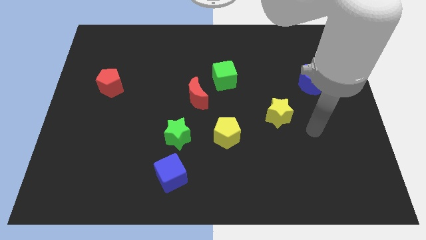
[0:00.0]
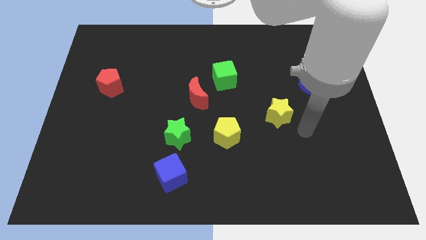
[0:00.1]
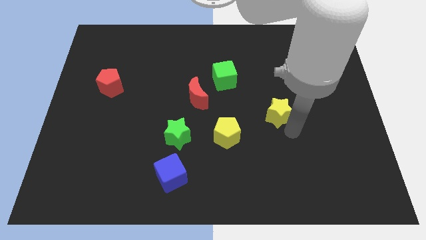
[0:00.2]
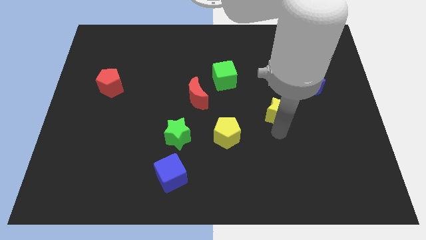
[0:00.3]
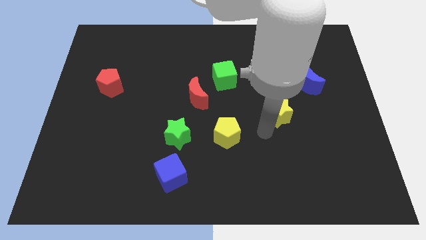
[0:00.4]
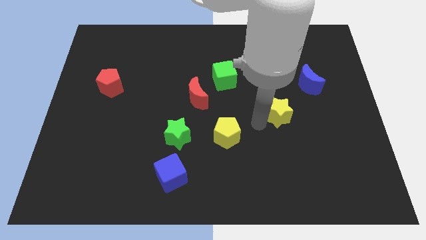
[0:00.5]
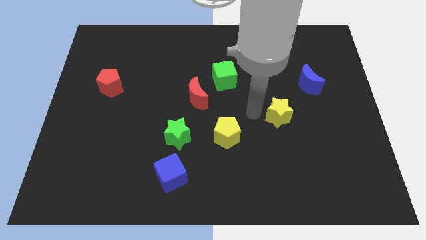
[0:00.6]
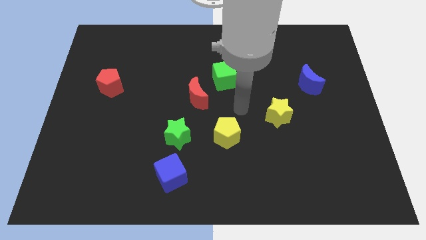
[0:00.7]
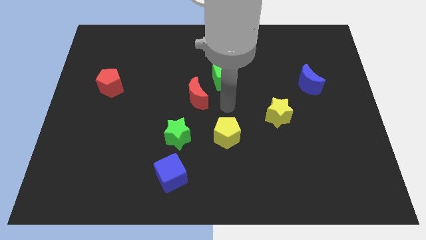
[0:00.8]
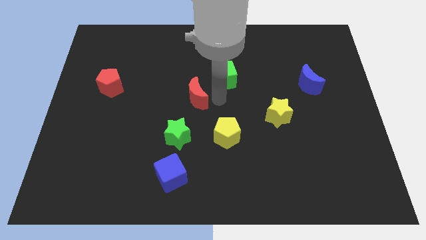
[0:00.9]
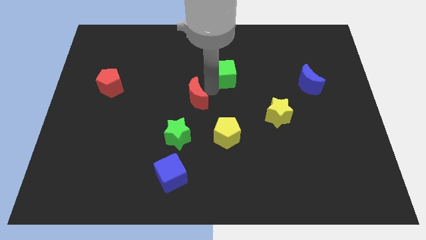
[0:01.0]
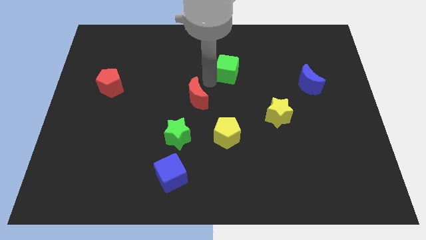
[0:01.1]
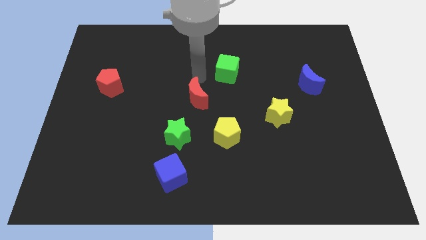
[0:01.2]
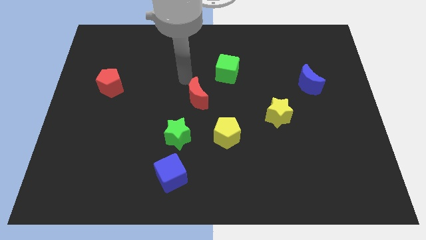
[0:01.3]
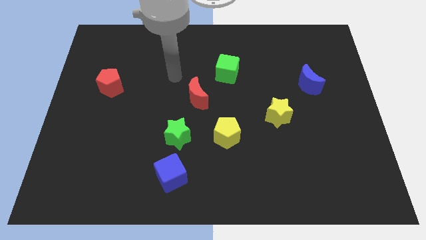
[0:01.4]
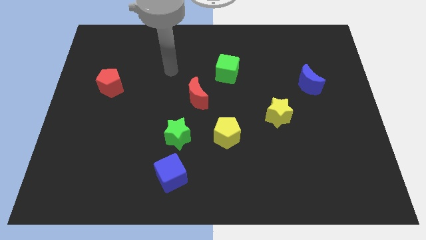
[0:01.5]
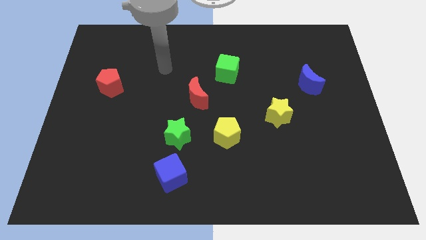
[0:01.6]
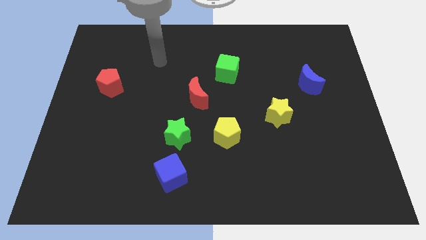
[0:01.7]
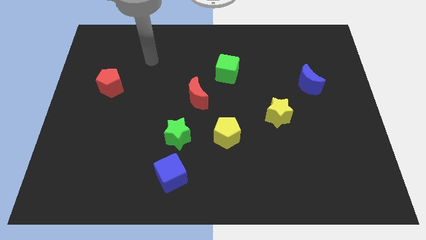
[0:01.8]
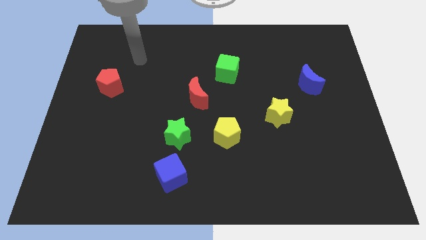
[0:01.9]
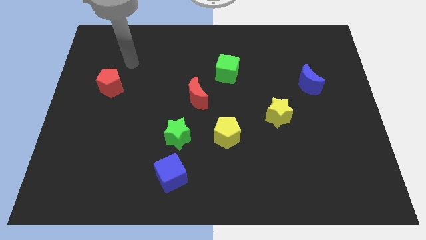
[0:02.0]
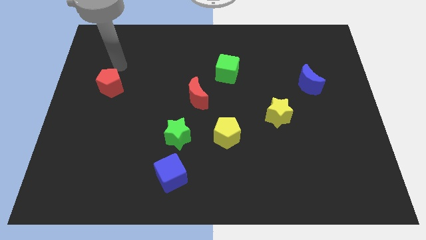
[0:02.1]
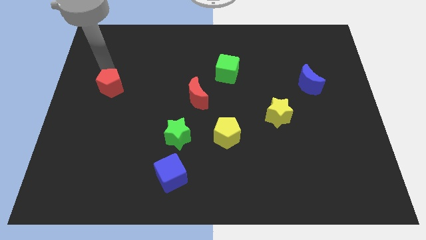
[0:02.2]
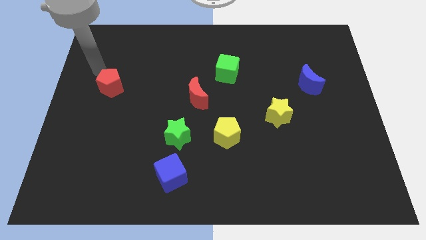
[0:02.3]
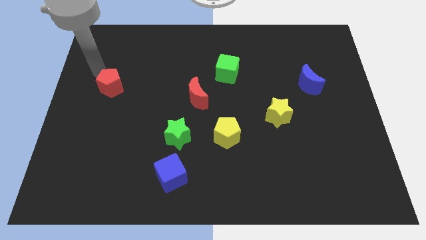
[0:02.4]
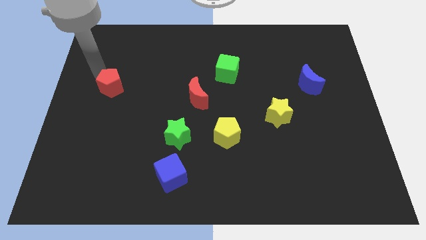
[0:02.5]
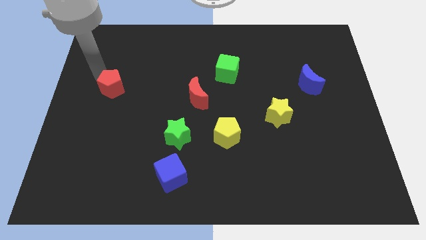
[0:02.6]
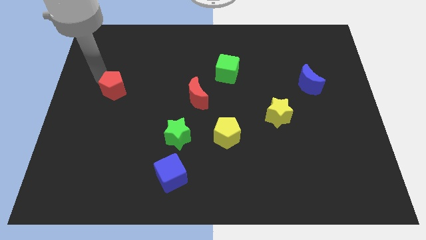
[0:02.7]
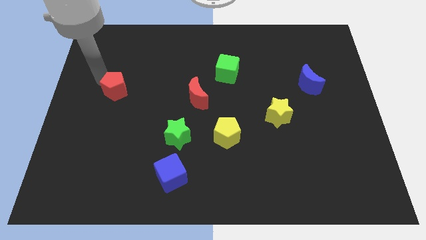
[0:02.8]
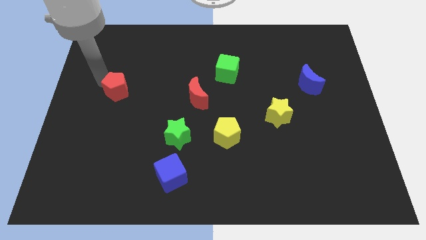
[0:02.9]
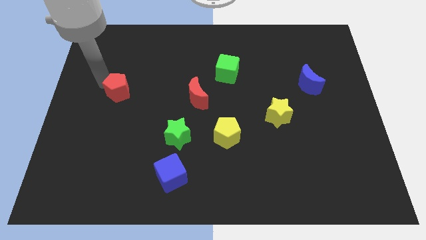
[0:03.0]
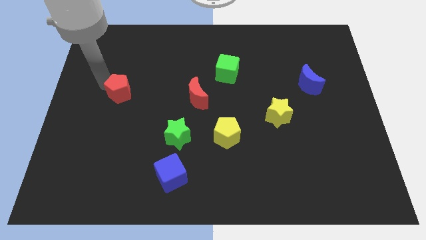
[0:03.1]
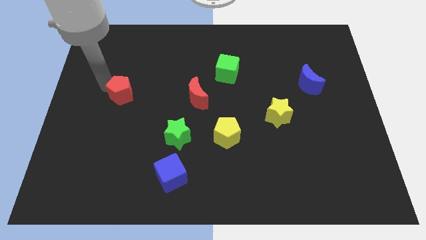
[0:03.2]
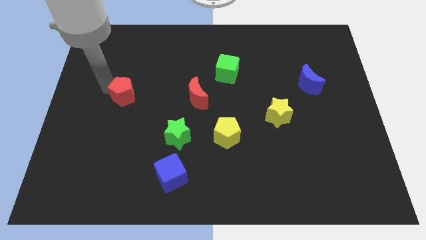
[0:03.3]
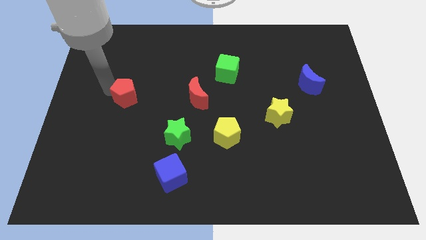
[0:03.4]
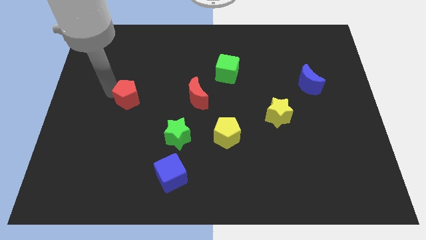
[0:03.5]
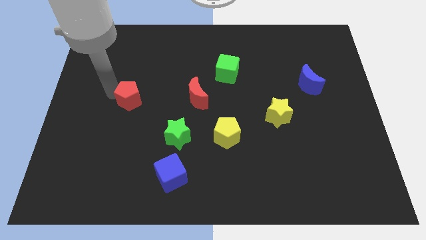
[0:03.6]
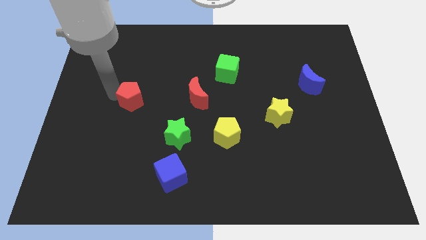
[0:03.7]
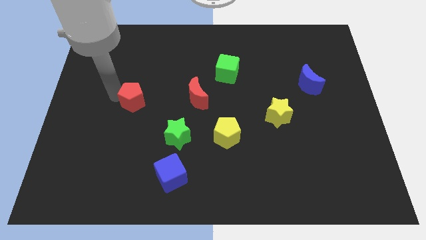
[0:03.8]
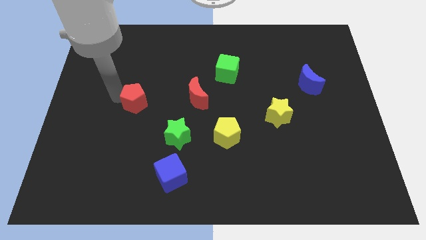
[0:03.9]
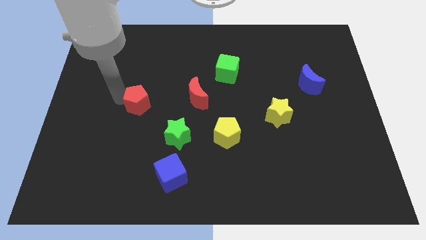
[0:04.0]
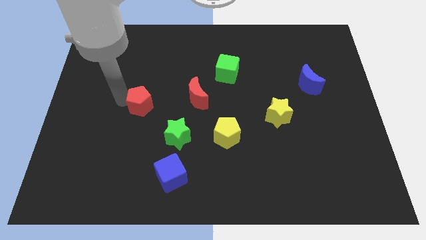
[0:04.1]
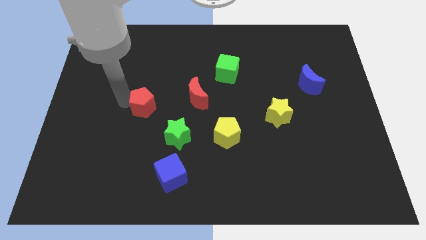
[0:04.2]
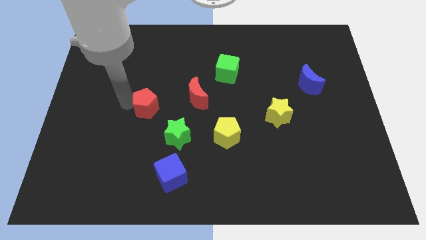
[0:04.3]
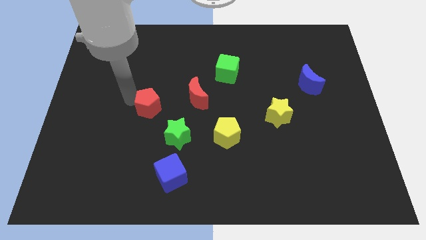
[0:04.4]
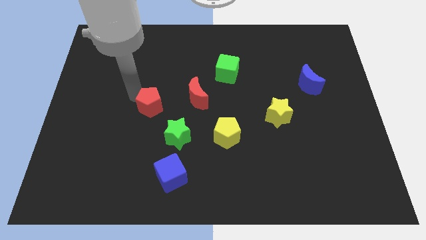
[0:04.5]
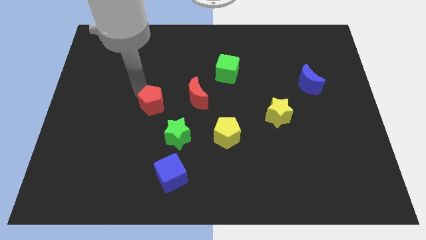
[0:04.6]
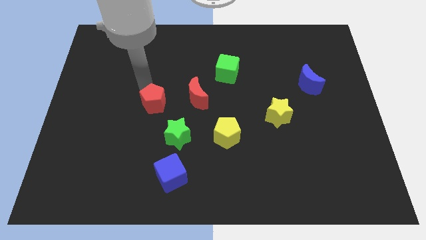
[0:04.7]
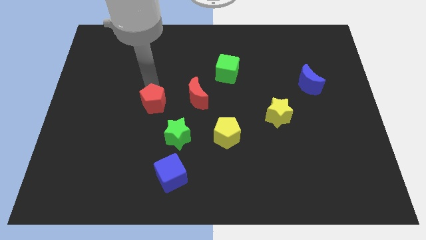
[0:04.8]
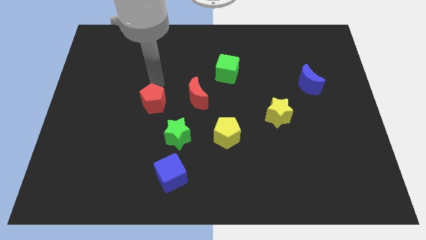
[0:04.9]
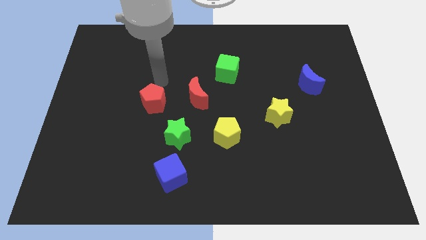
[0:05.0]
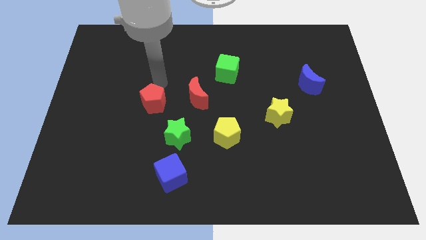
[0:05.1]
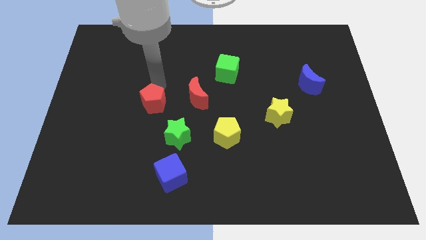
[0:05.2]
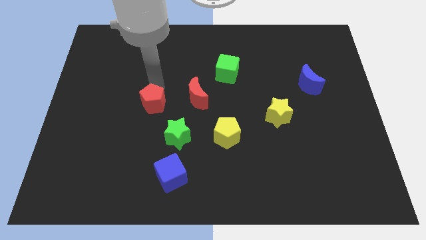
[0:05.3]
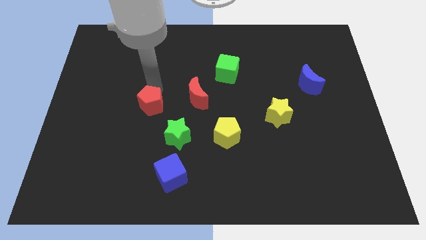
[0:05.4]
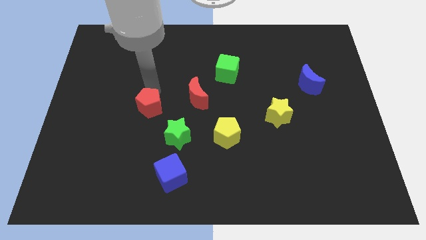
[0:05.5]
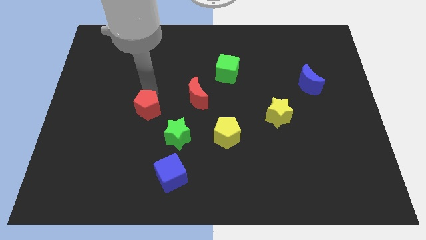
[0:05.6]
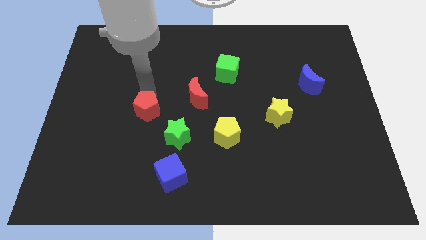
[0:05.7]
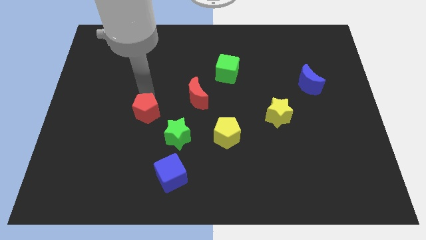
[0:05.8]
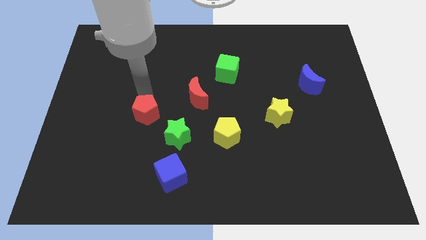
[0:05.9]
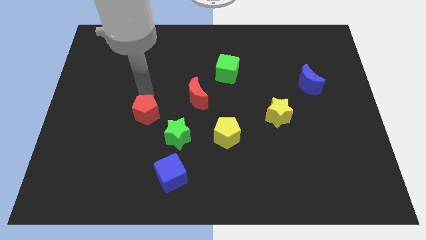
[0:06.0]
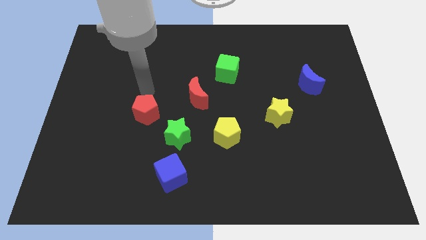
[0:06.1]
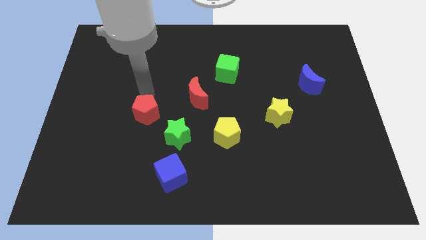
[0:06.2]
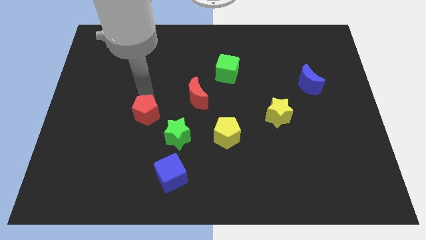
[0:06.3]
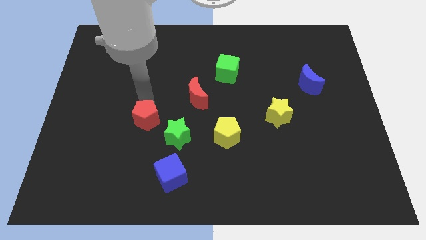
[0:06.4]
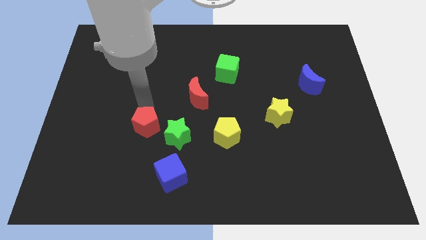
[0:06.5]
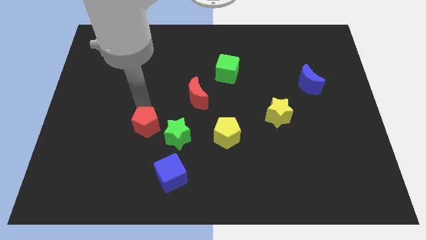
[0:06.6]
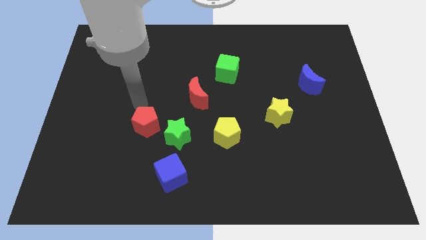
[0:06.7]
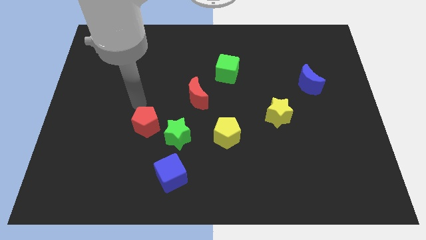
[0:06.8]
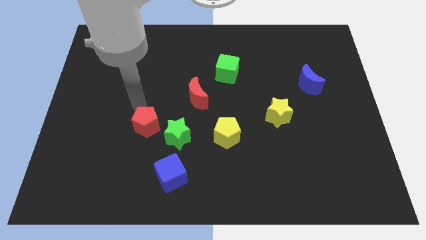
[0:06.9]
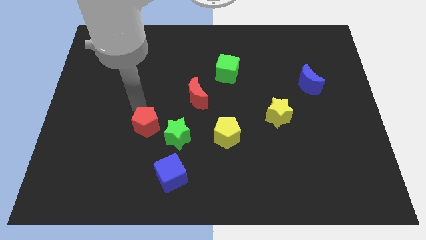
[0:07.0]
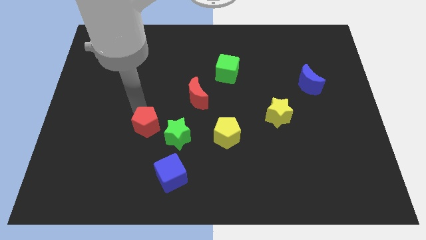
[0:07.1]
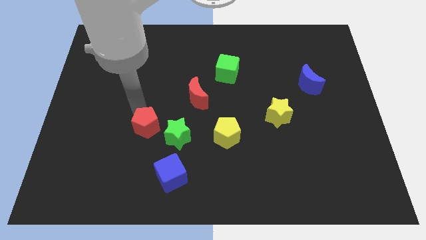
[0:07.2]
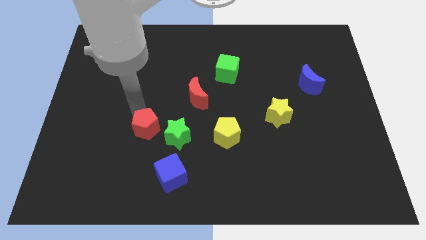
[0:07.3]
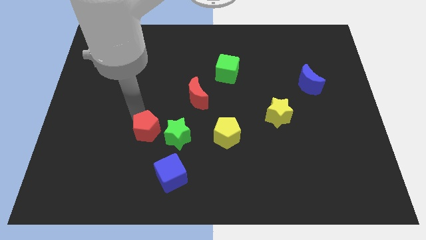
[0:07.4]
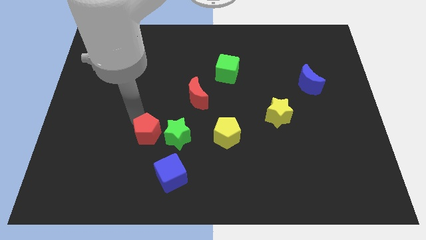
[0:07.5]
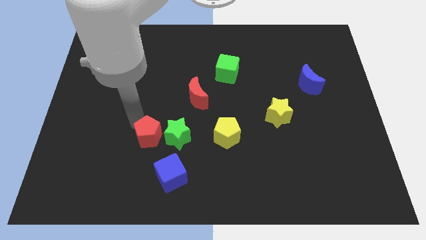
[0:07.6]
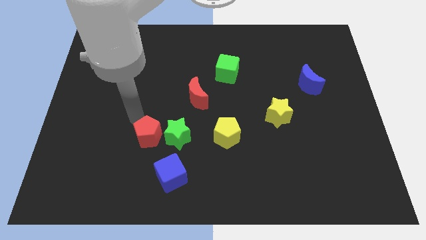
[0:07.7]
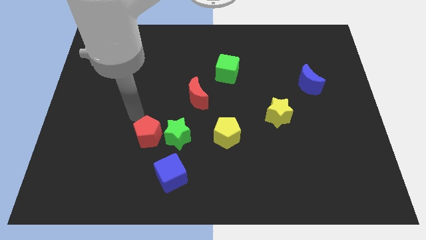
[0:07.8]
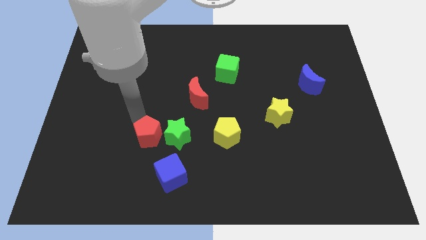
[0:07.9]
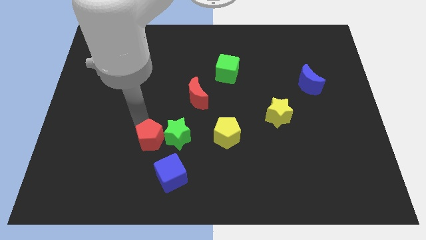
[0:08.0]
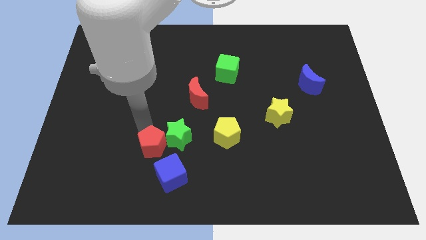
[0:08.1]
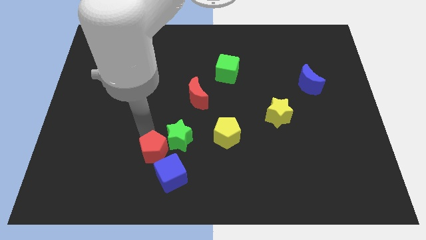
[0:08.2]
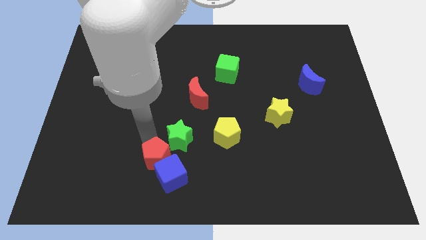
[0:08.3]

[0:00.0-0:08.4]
slide the red pentagon close to the blue cube
